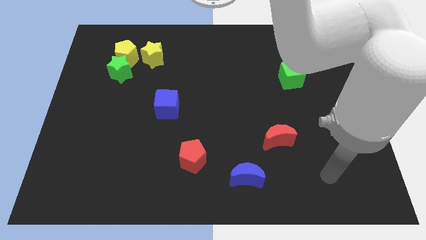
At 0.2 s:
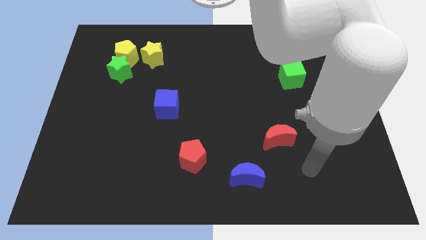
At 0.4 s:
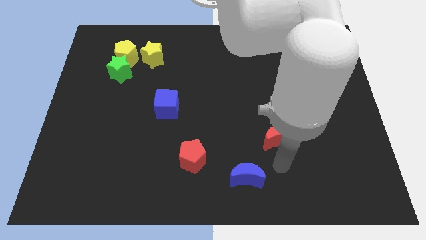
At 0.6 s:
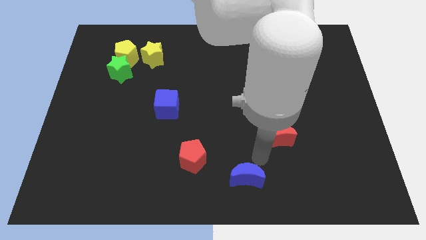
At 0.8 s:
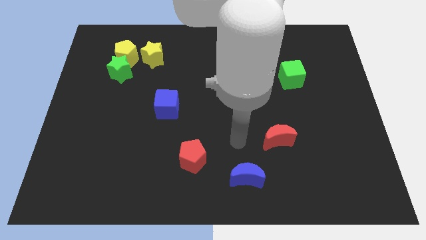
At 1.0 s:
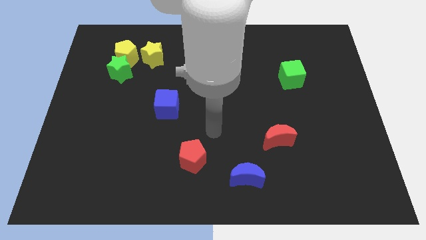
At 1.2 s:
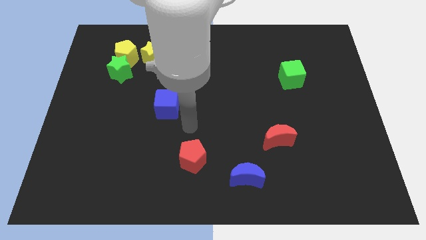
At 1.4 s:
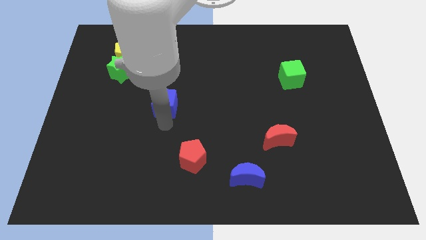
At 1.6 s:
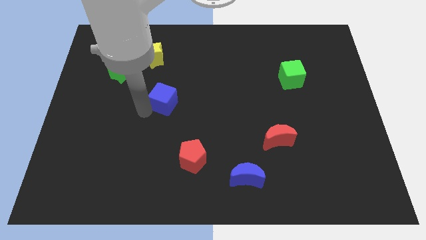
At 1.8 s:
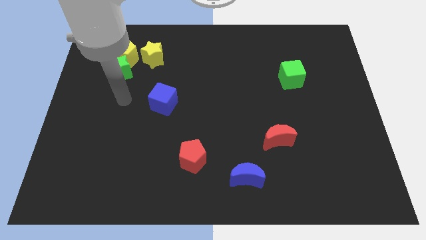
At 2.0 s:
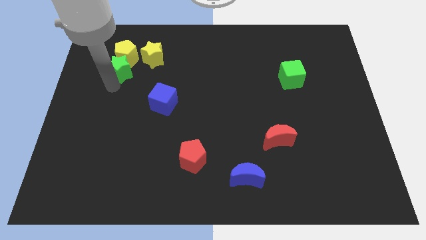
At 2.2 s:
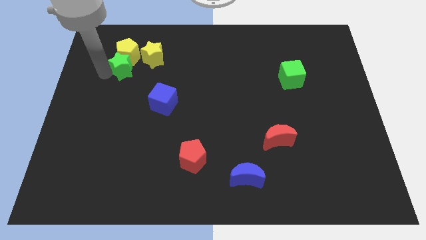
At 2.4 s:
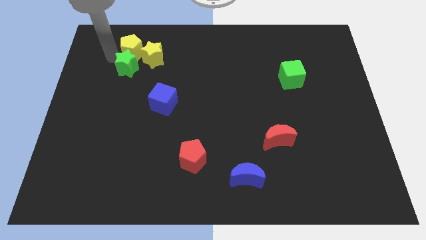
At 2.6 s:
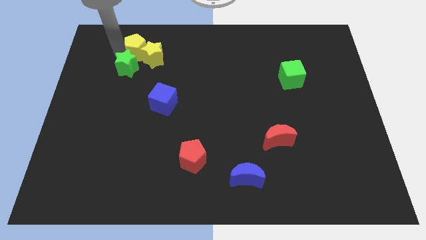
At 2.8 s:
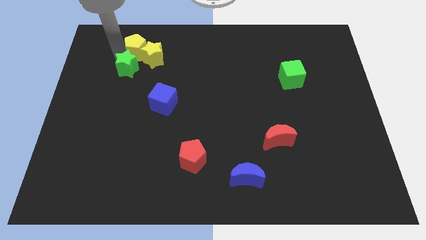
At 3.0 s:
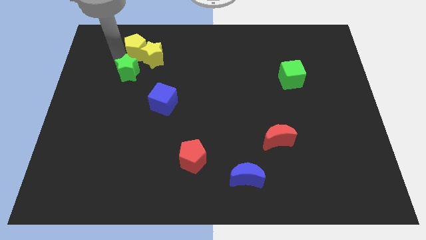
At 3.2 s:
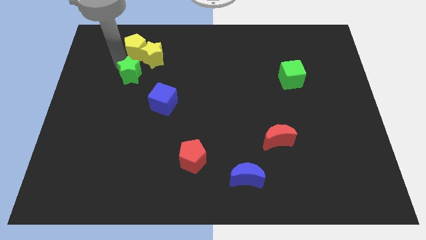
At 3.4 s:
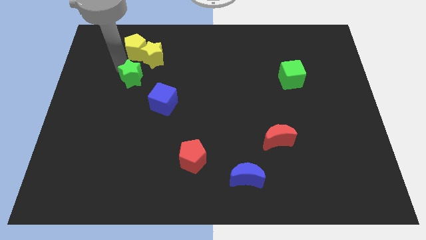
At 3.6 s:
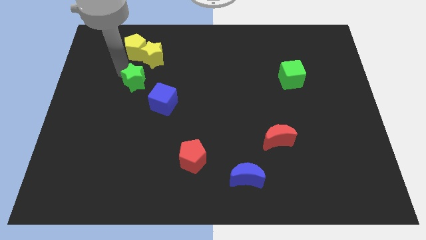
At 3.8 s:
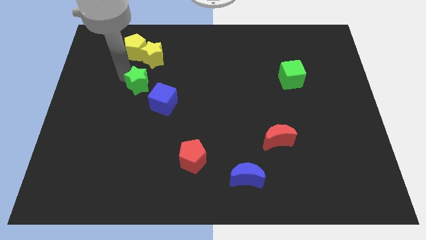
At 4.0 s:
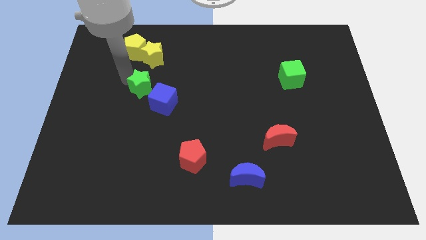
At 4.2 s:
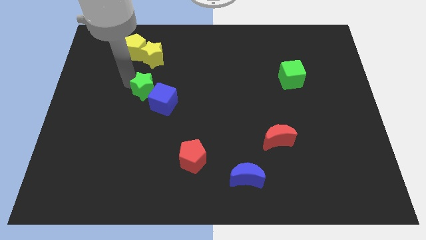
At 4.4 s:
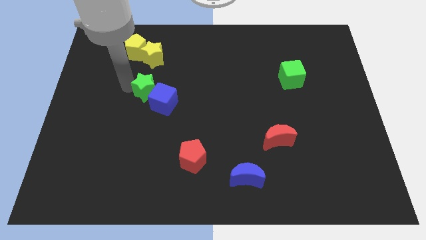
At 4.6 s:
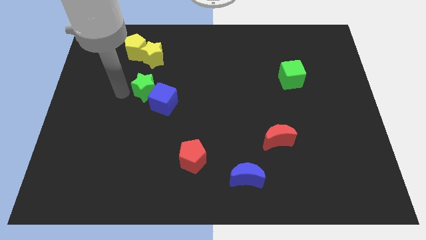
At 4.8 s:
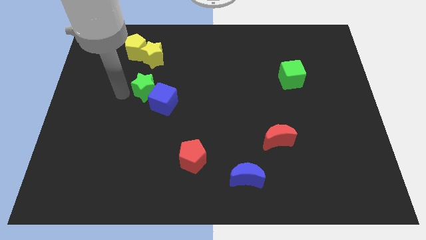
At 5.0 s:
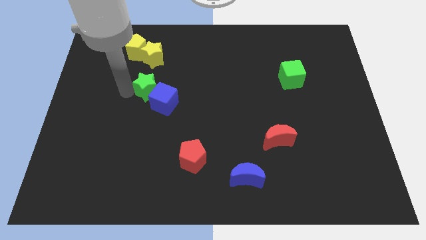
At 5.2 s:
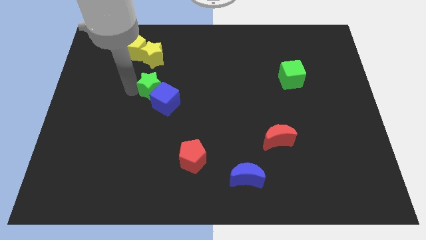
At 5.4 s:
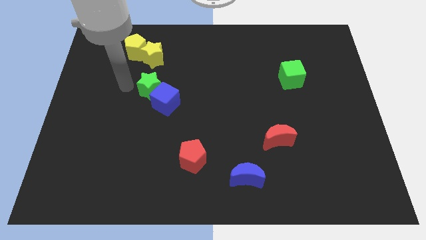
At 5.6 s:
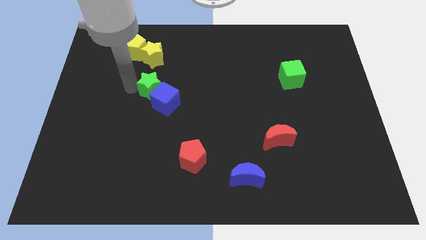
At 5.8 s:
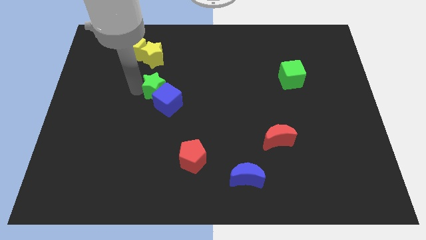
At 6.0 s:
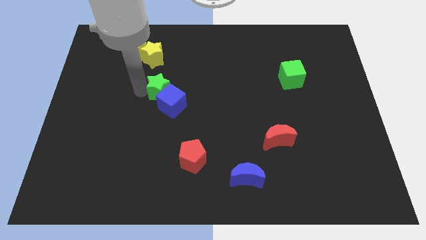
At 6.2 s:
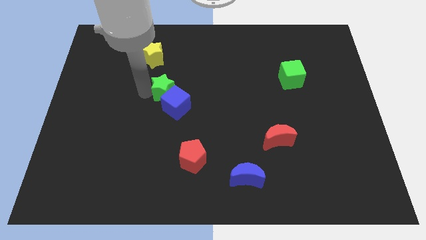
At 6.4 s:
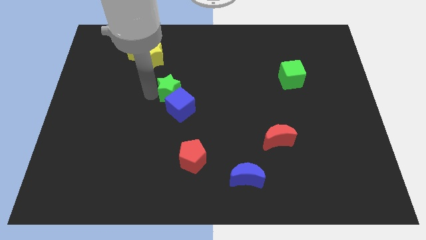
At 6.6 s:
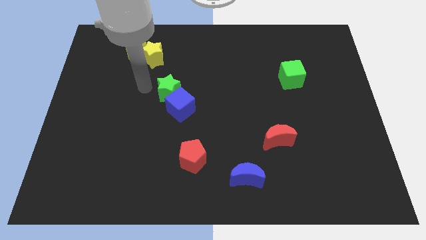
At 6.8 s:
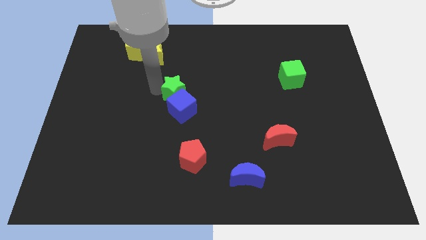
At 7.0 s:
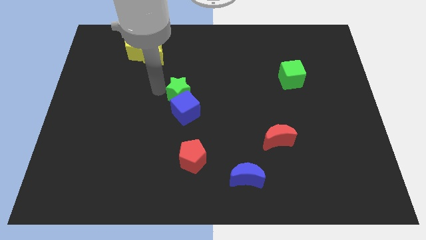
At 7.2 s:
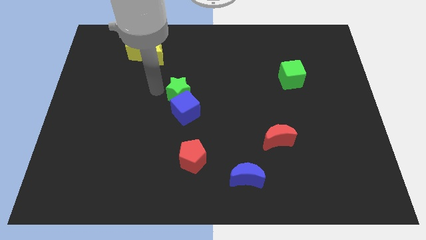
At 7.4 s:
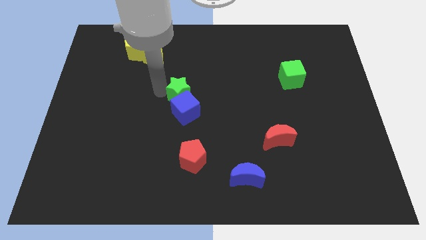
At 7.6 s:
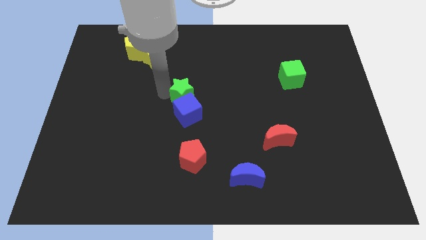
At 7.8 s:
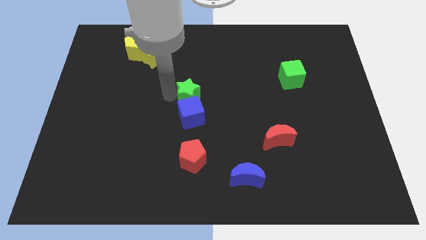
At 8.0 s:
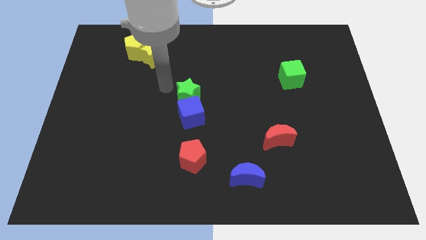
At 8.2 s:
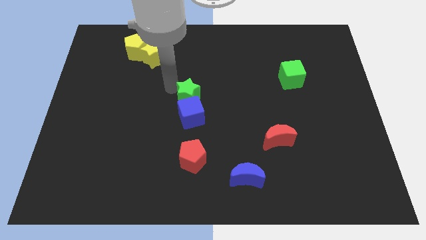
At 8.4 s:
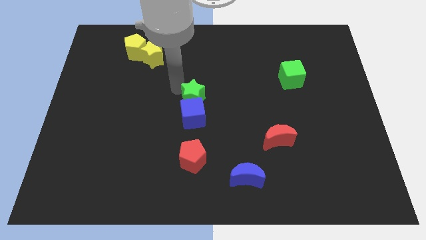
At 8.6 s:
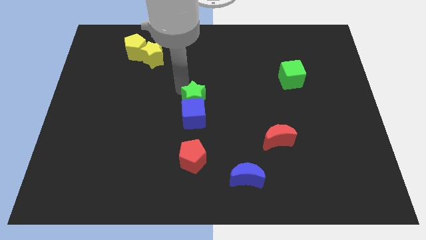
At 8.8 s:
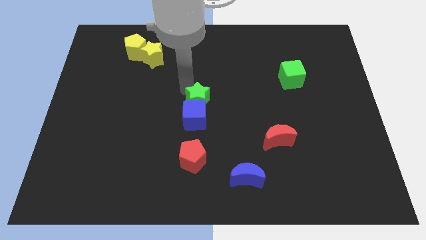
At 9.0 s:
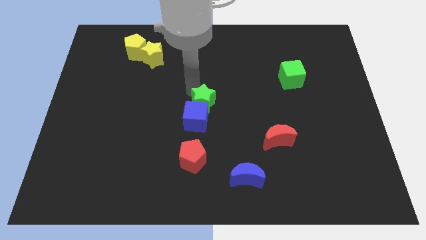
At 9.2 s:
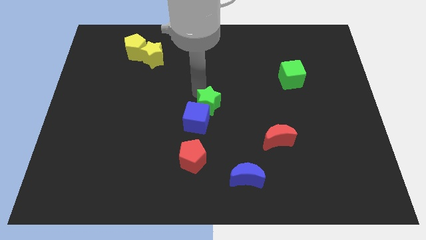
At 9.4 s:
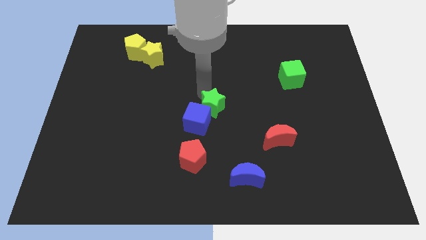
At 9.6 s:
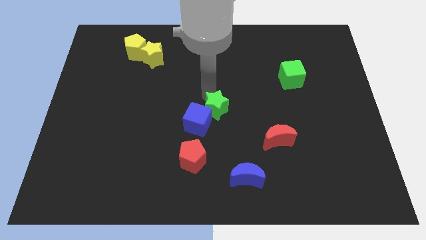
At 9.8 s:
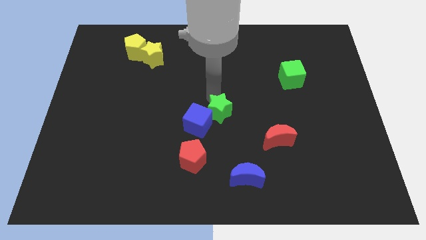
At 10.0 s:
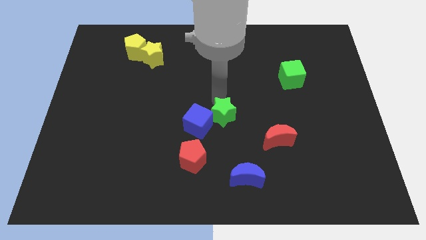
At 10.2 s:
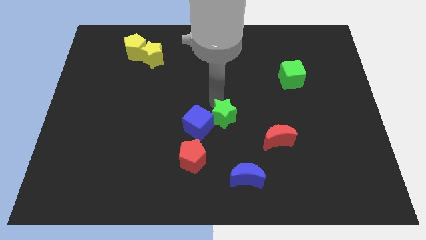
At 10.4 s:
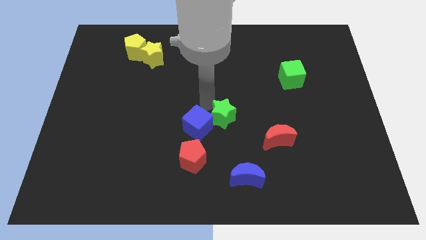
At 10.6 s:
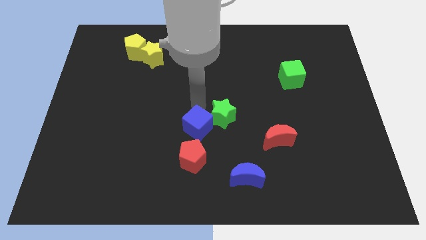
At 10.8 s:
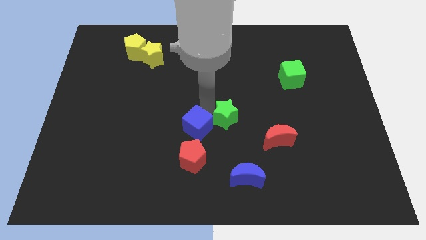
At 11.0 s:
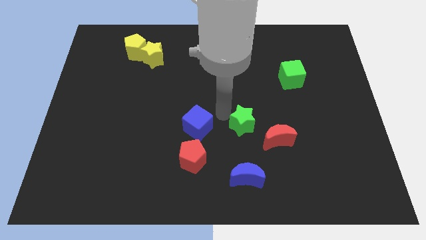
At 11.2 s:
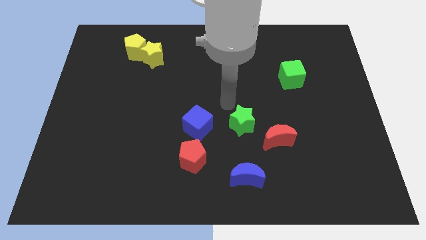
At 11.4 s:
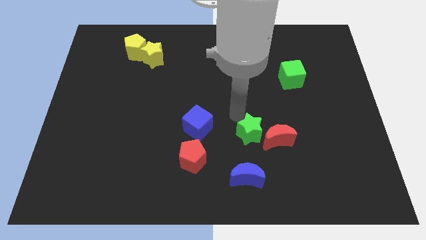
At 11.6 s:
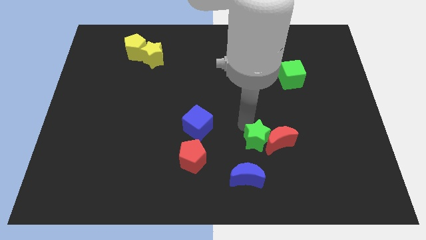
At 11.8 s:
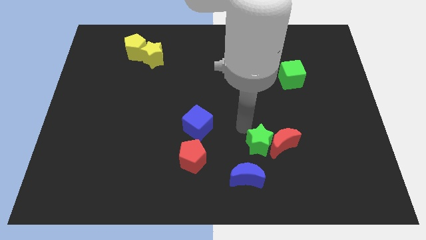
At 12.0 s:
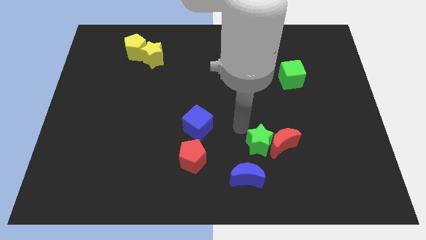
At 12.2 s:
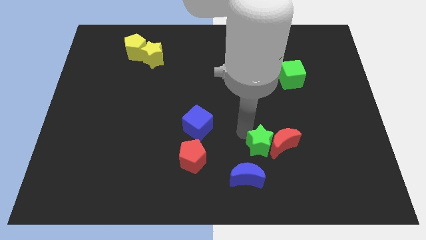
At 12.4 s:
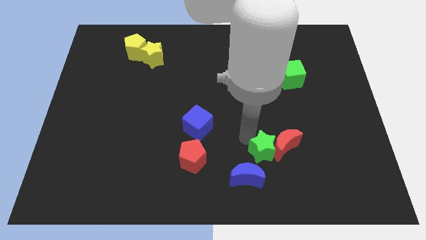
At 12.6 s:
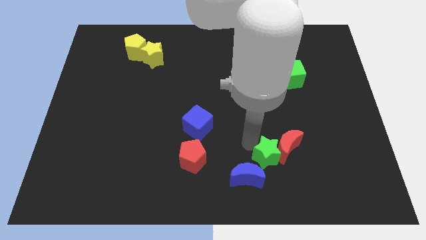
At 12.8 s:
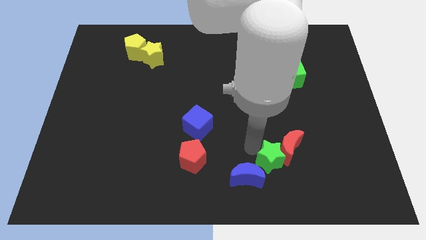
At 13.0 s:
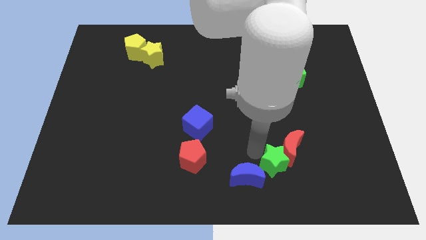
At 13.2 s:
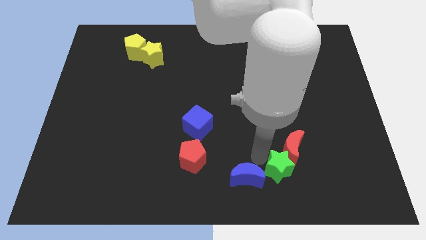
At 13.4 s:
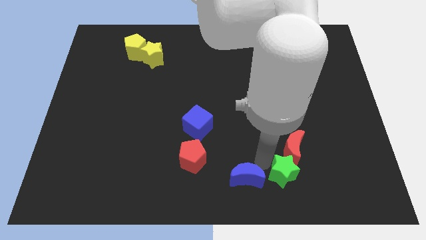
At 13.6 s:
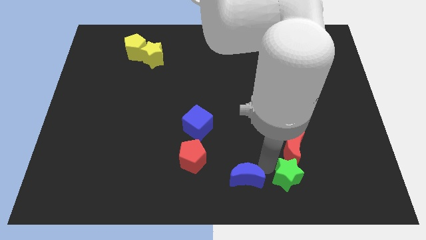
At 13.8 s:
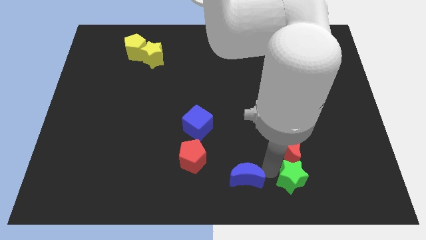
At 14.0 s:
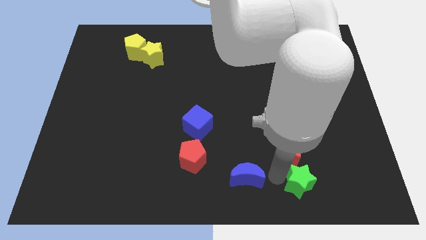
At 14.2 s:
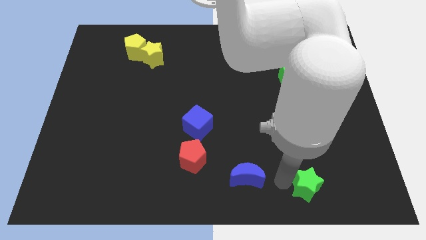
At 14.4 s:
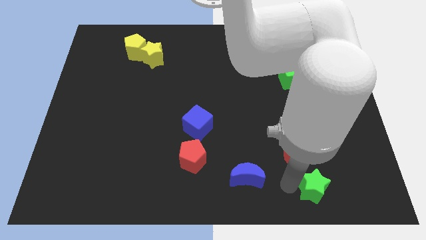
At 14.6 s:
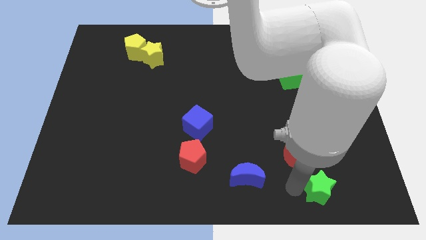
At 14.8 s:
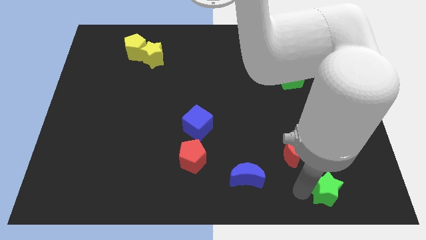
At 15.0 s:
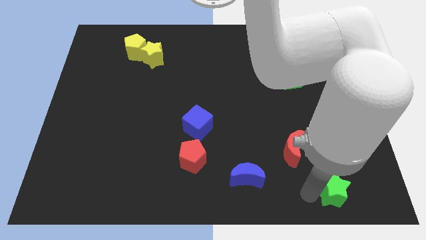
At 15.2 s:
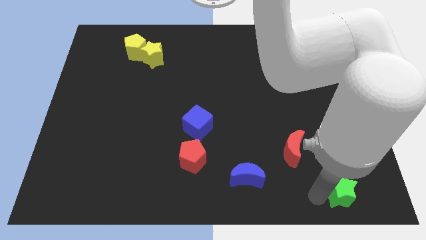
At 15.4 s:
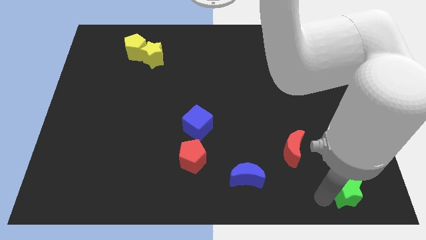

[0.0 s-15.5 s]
put the green star to the bottom right of the board
